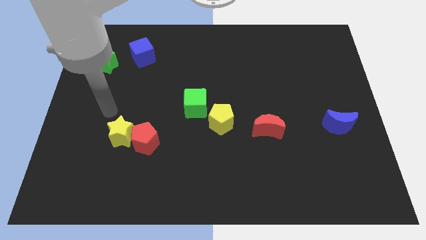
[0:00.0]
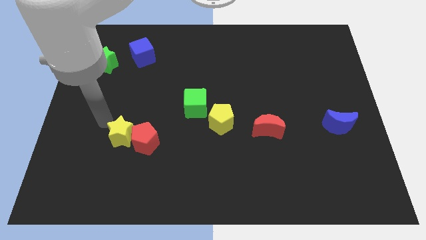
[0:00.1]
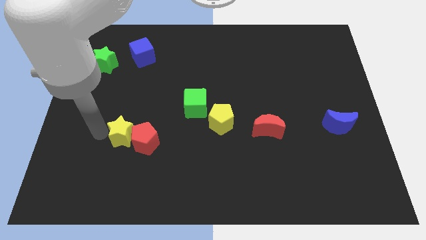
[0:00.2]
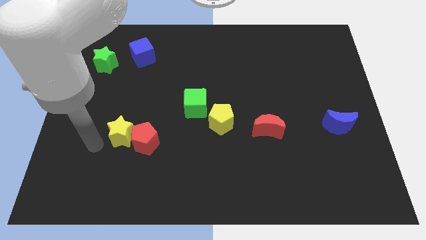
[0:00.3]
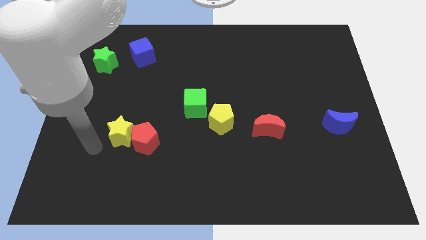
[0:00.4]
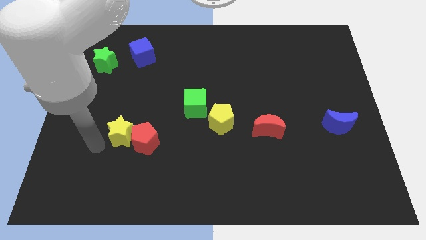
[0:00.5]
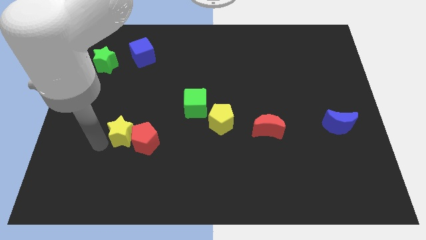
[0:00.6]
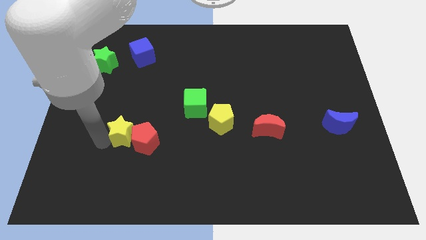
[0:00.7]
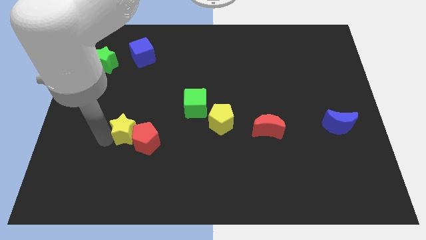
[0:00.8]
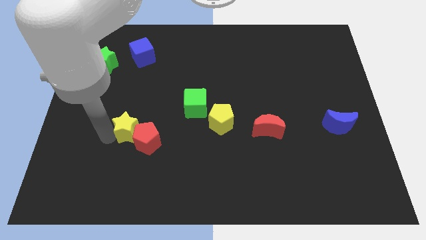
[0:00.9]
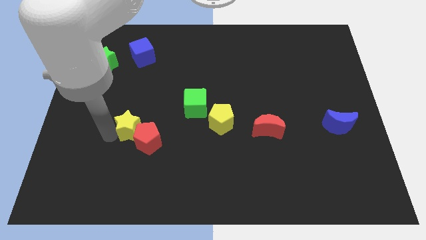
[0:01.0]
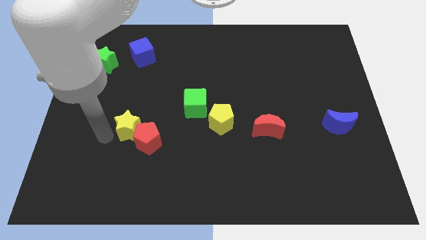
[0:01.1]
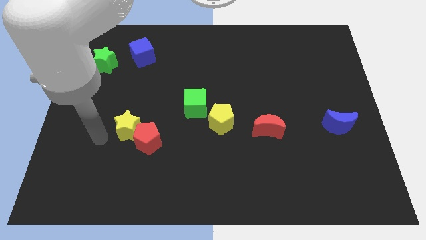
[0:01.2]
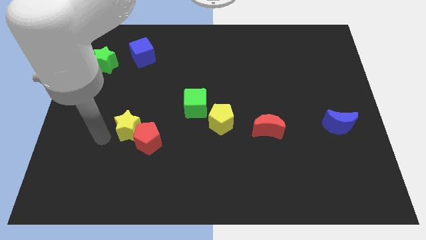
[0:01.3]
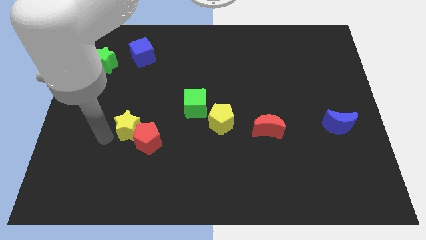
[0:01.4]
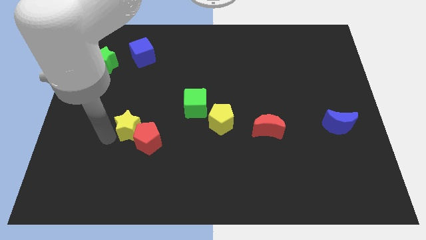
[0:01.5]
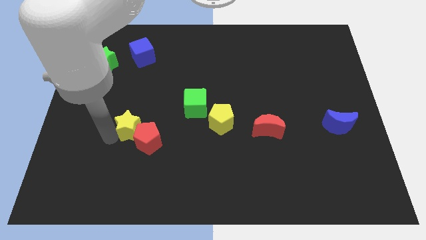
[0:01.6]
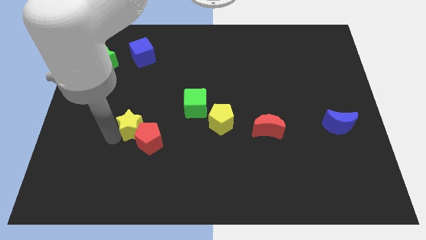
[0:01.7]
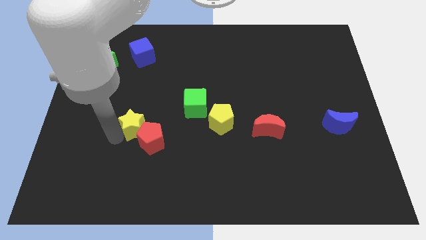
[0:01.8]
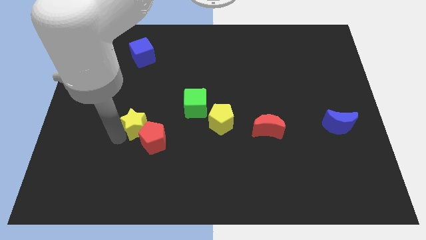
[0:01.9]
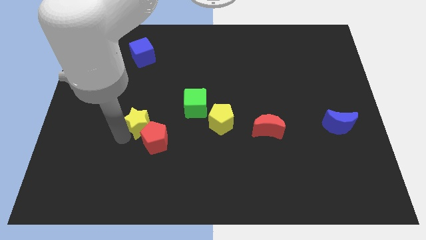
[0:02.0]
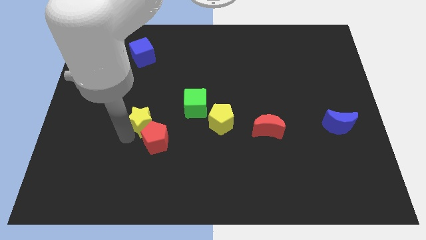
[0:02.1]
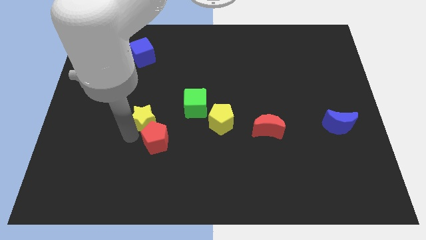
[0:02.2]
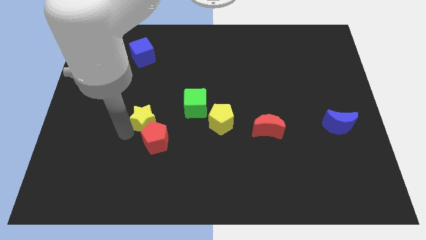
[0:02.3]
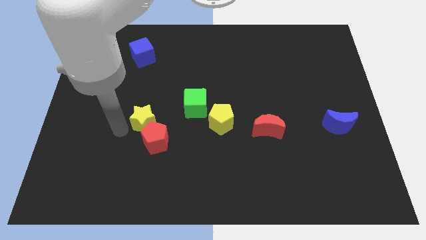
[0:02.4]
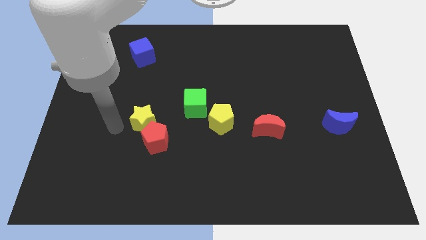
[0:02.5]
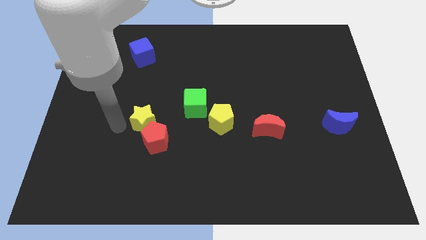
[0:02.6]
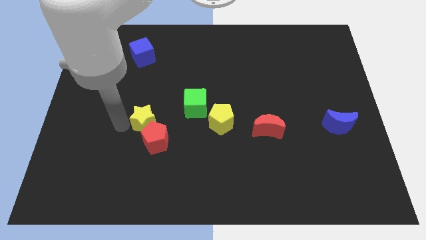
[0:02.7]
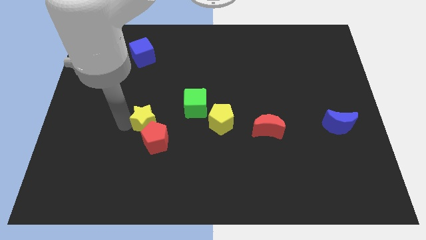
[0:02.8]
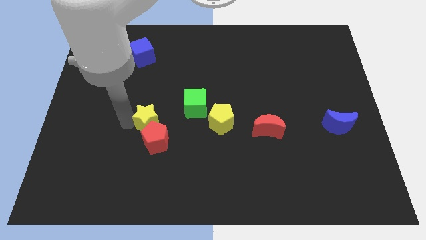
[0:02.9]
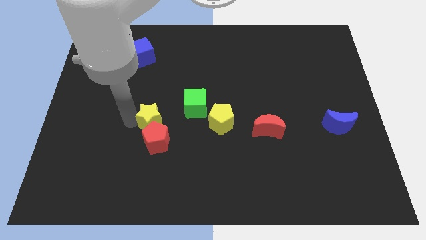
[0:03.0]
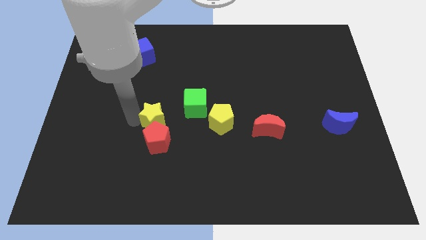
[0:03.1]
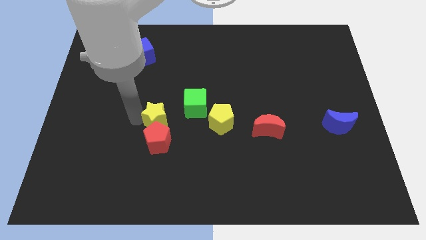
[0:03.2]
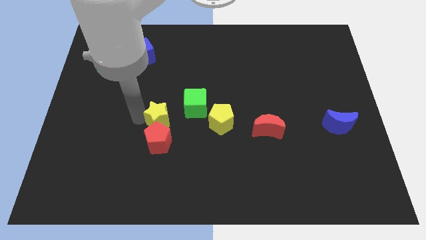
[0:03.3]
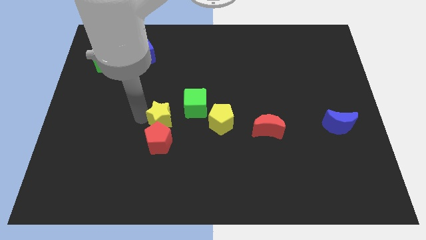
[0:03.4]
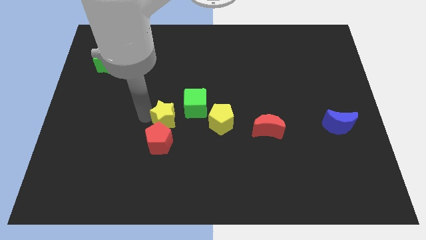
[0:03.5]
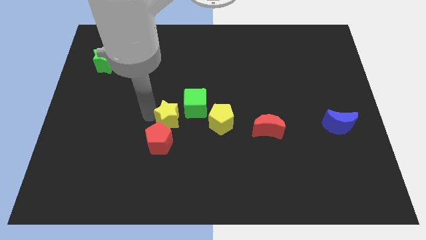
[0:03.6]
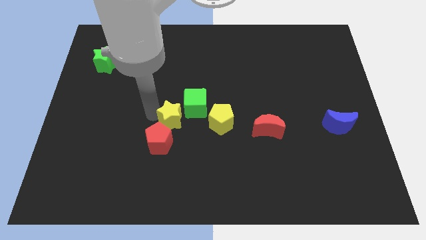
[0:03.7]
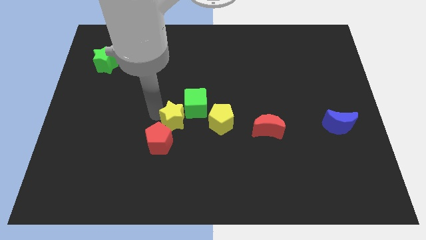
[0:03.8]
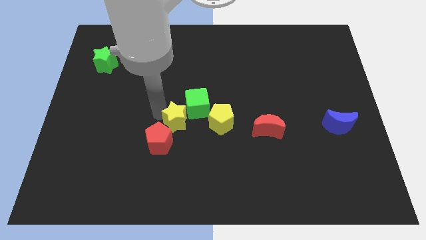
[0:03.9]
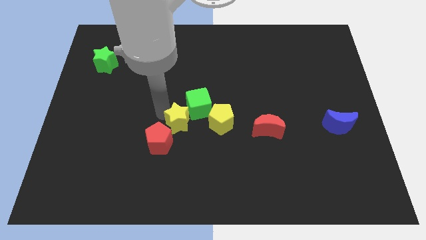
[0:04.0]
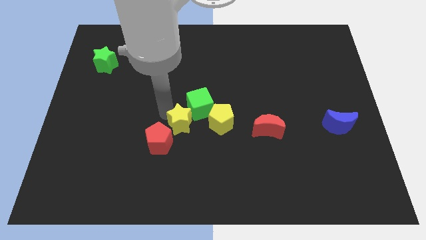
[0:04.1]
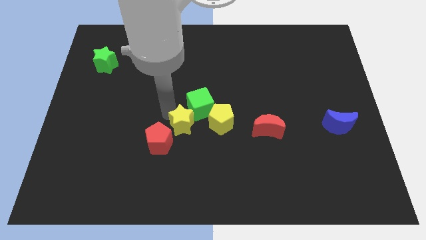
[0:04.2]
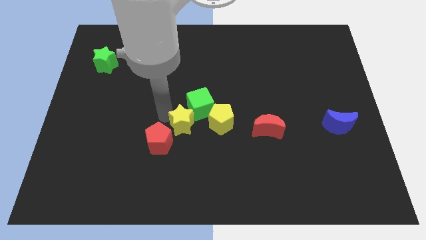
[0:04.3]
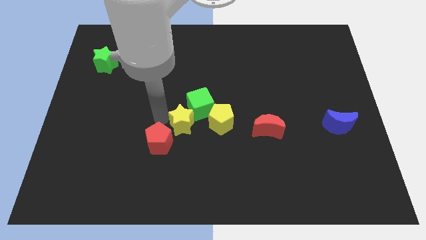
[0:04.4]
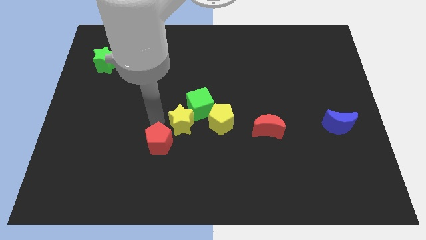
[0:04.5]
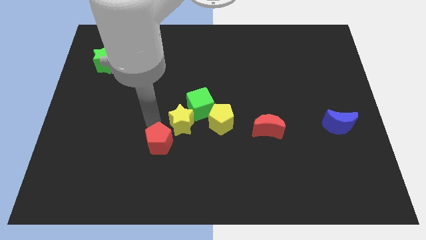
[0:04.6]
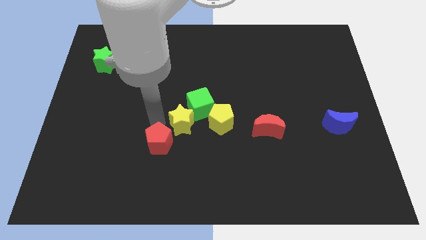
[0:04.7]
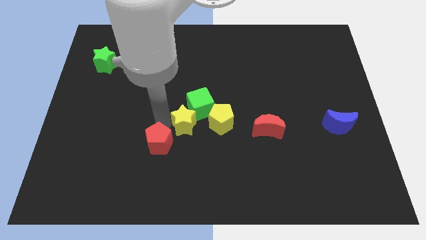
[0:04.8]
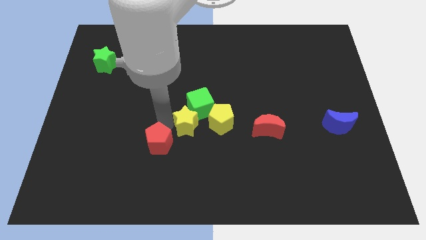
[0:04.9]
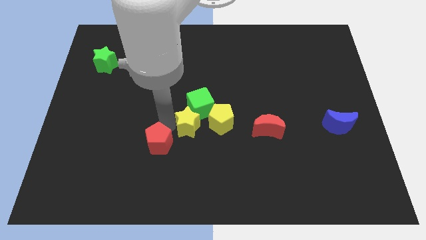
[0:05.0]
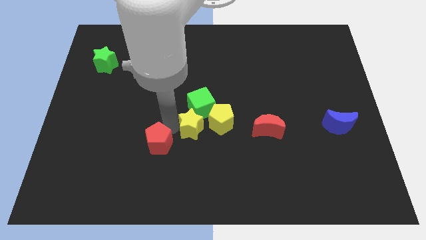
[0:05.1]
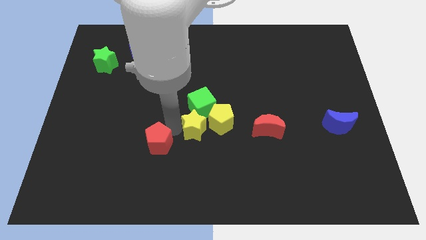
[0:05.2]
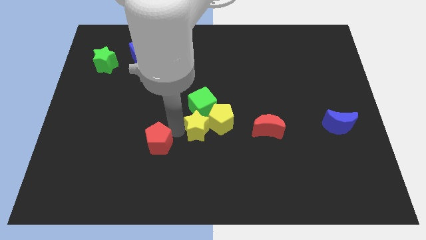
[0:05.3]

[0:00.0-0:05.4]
push the yellow star to the yellow pentagon

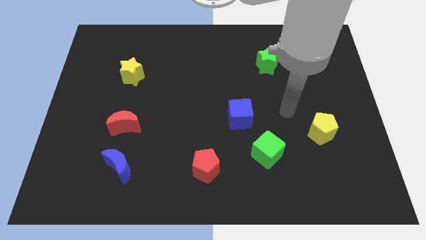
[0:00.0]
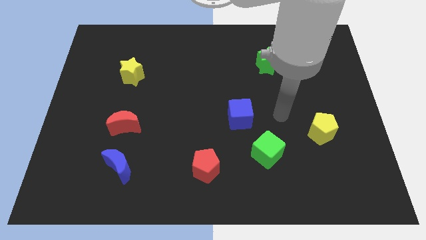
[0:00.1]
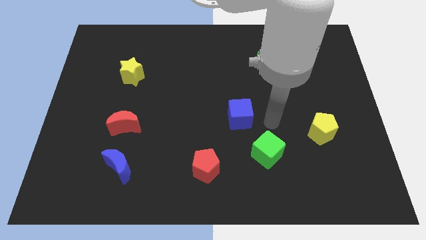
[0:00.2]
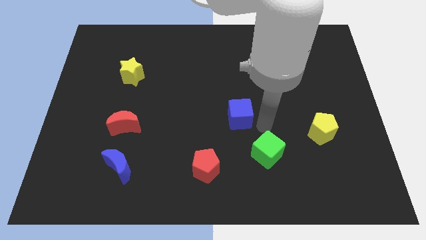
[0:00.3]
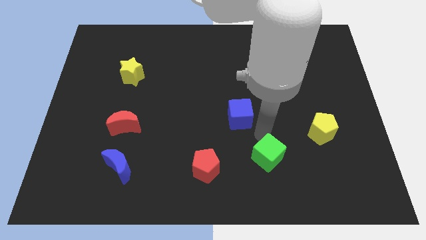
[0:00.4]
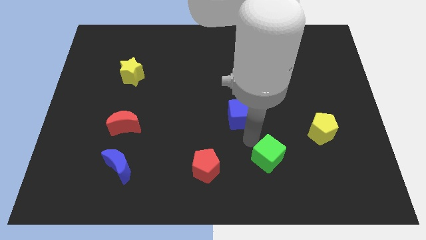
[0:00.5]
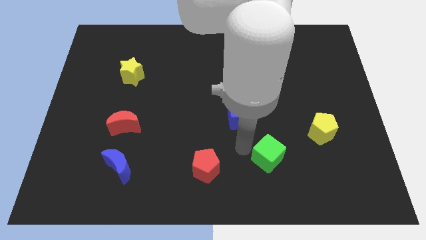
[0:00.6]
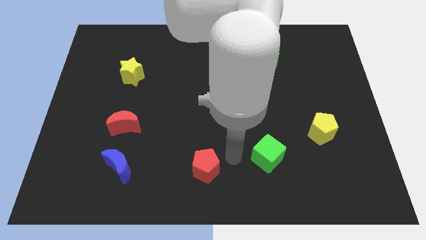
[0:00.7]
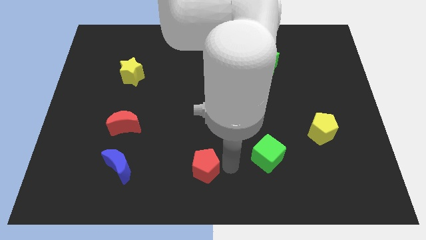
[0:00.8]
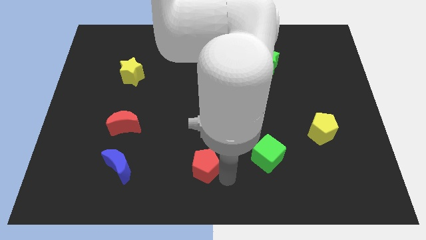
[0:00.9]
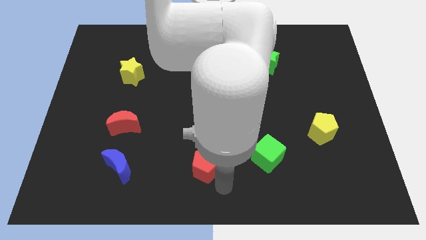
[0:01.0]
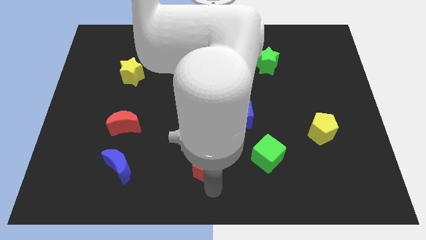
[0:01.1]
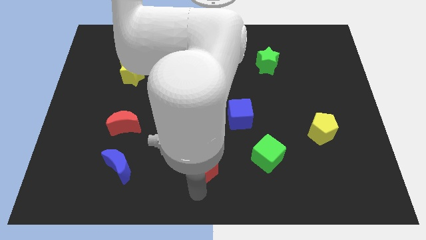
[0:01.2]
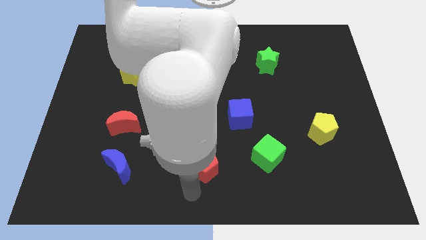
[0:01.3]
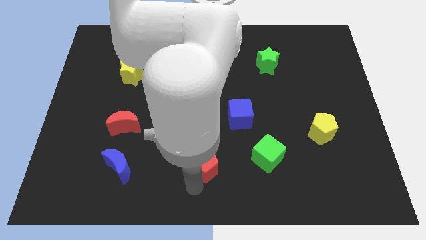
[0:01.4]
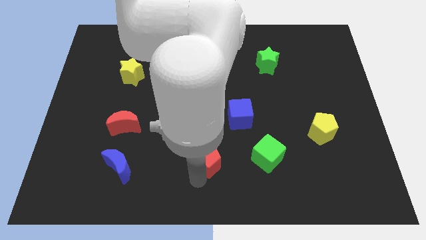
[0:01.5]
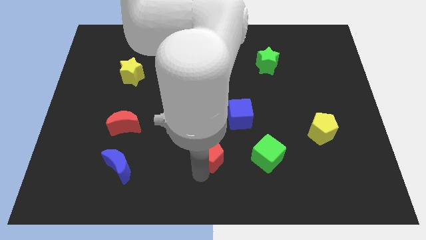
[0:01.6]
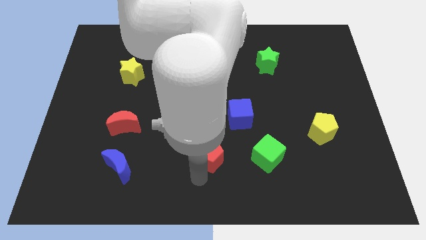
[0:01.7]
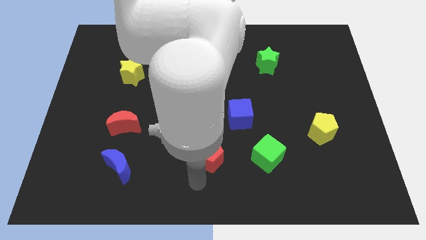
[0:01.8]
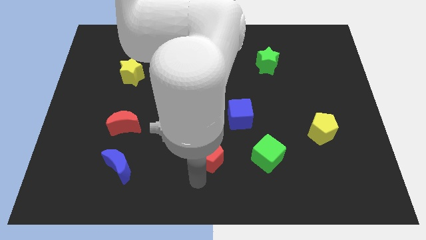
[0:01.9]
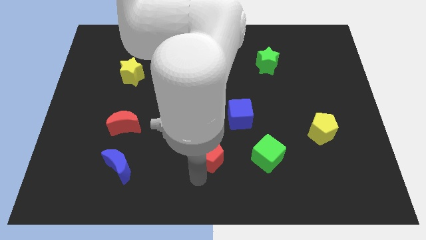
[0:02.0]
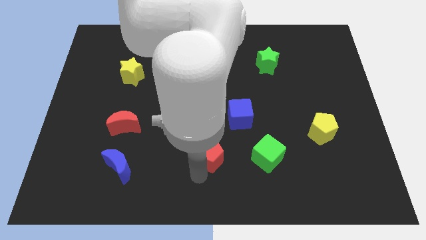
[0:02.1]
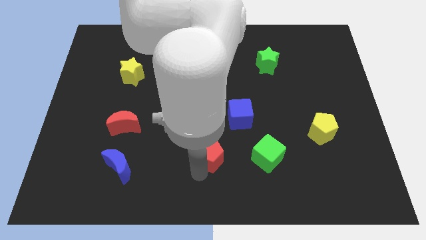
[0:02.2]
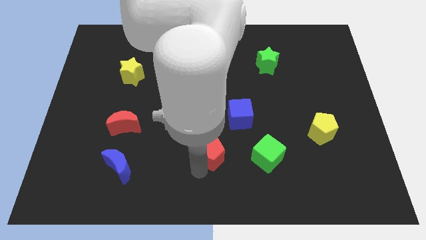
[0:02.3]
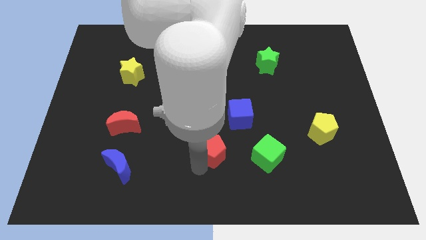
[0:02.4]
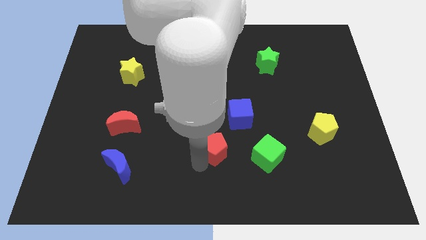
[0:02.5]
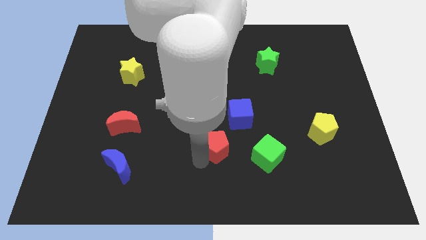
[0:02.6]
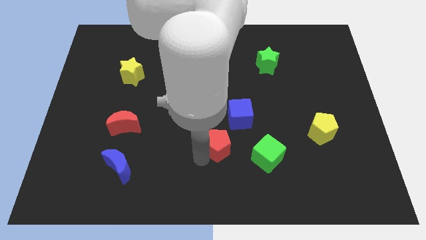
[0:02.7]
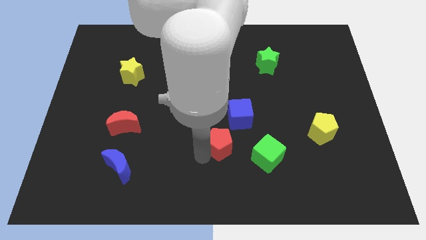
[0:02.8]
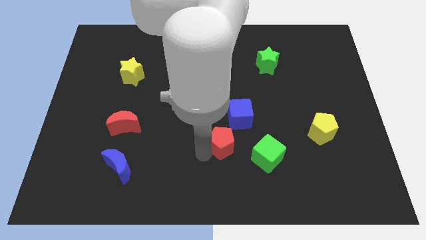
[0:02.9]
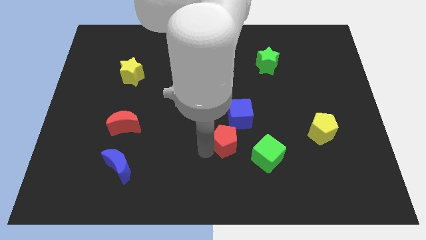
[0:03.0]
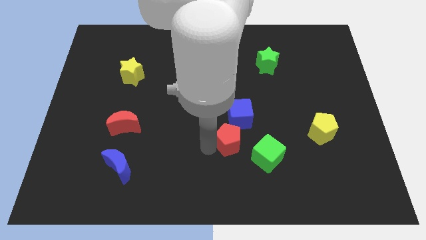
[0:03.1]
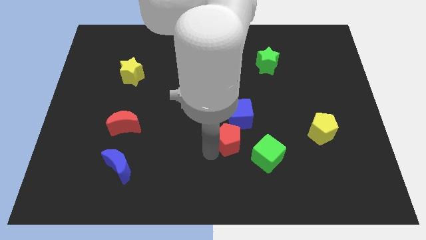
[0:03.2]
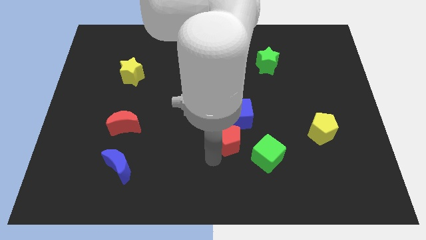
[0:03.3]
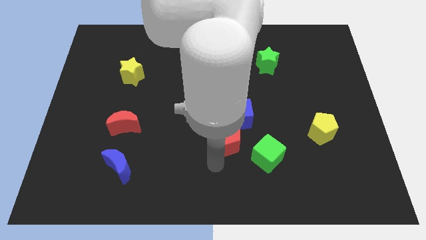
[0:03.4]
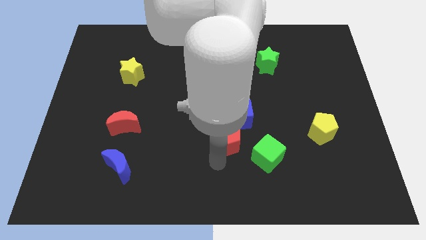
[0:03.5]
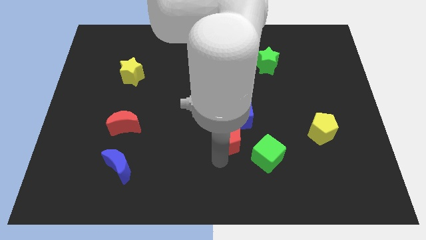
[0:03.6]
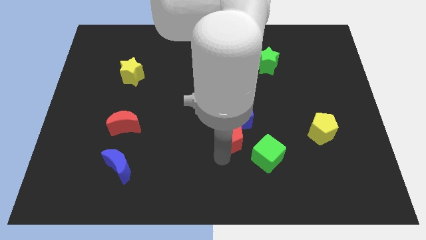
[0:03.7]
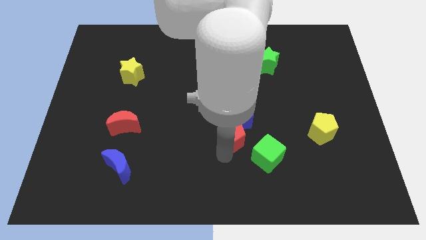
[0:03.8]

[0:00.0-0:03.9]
push the red pentagon next to the blue cube
